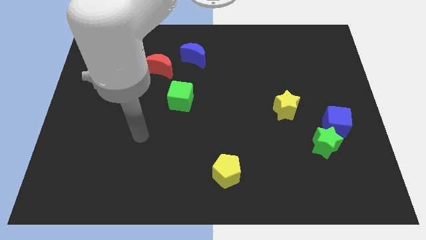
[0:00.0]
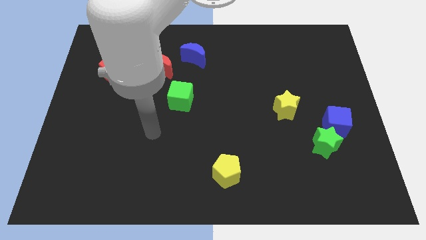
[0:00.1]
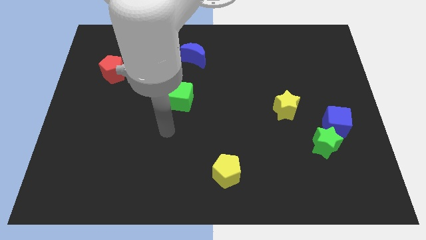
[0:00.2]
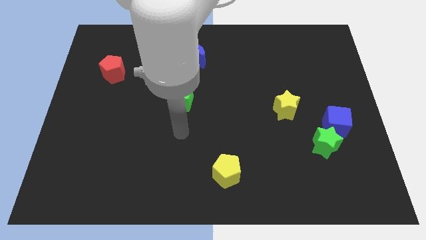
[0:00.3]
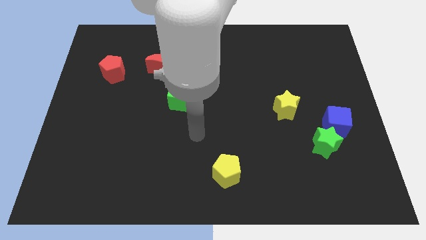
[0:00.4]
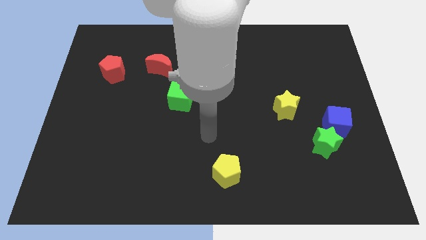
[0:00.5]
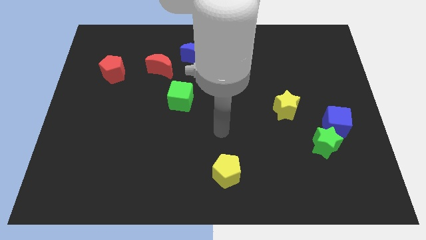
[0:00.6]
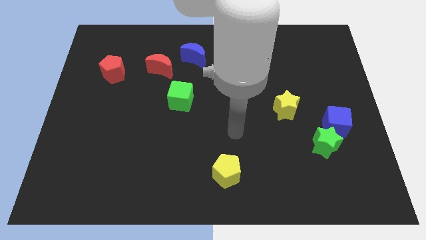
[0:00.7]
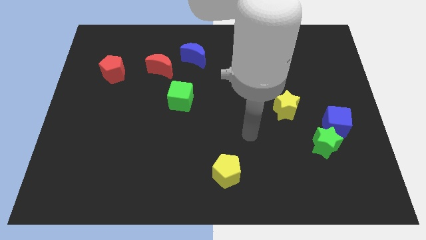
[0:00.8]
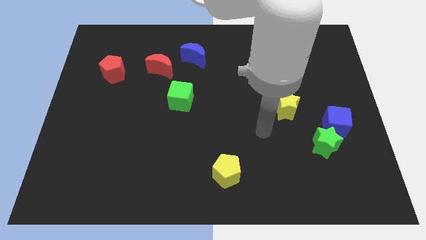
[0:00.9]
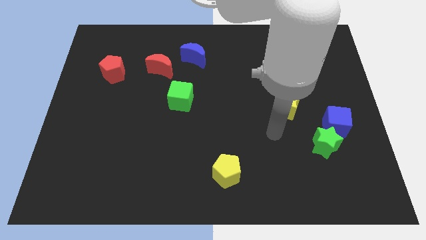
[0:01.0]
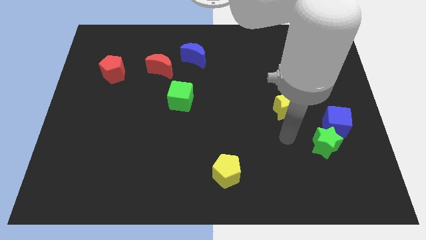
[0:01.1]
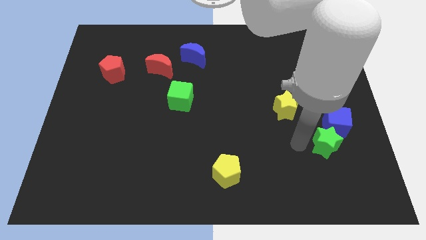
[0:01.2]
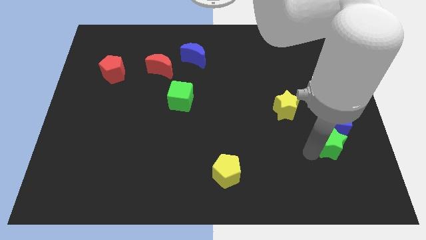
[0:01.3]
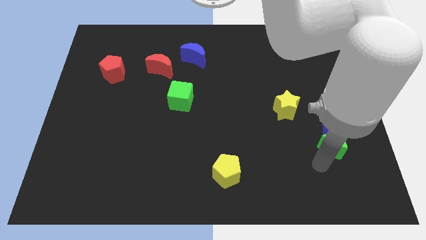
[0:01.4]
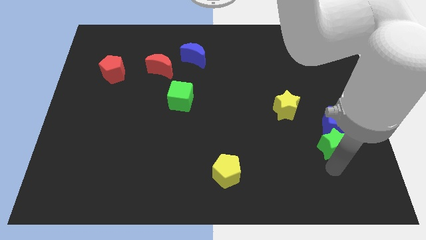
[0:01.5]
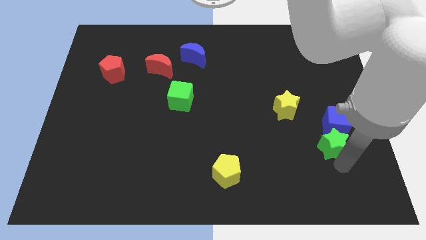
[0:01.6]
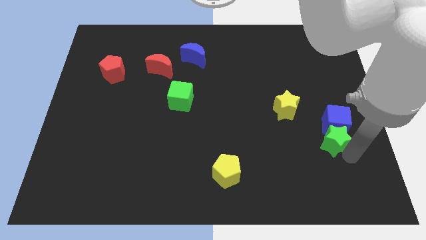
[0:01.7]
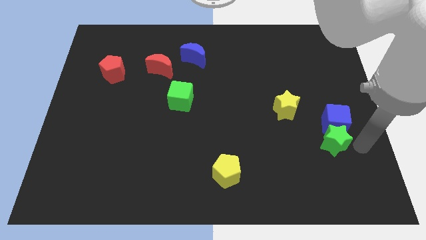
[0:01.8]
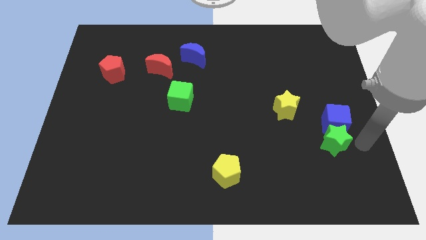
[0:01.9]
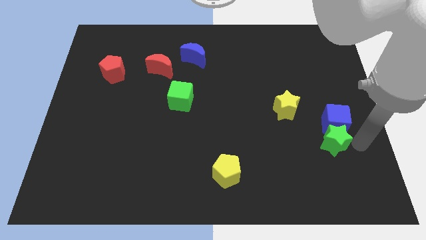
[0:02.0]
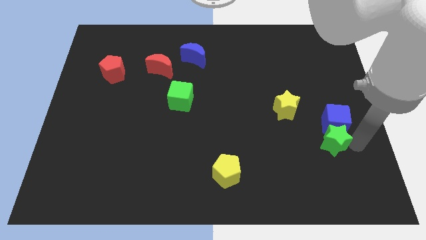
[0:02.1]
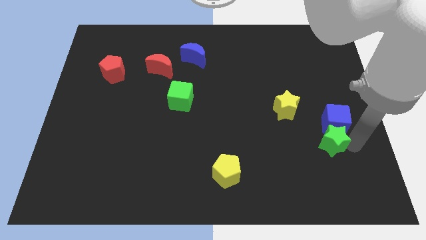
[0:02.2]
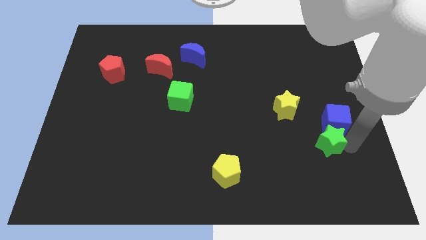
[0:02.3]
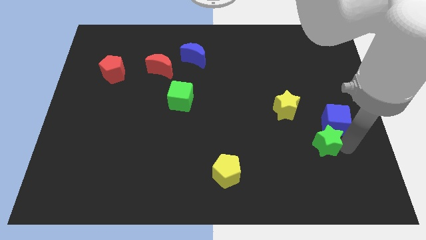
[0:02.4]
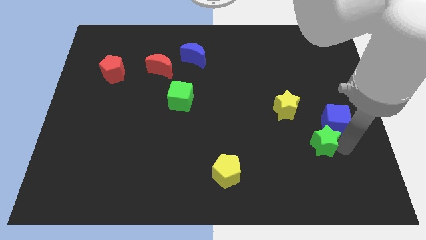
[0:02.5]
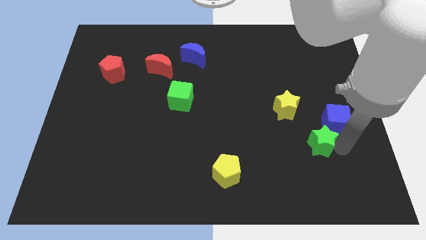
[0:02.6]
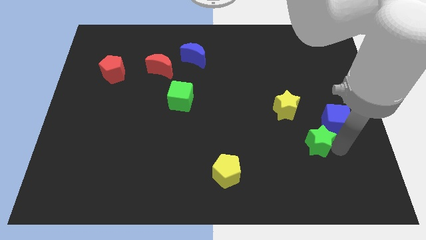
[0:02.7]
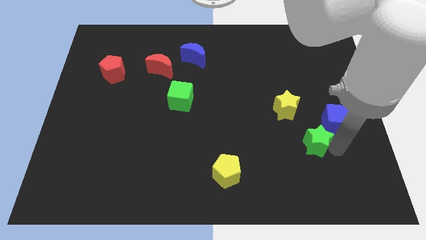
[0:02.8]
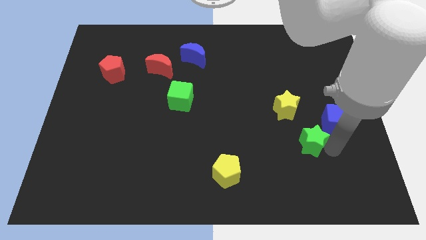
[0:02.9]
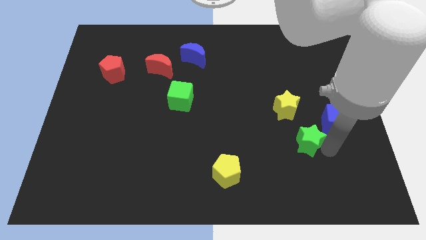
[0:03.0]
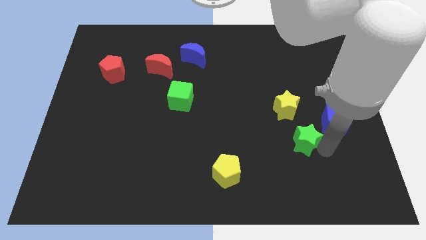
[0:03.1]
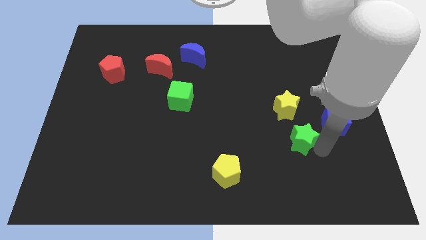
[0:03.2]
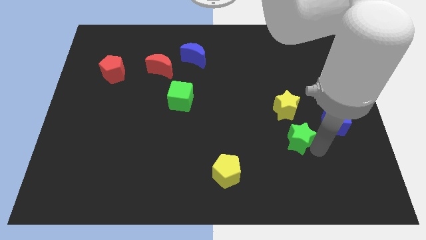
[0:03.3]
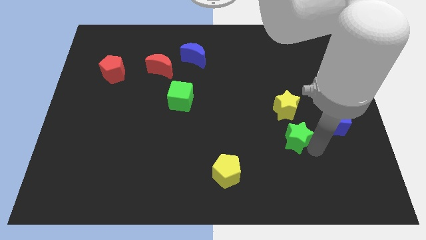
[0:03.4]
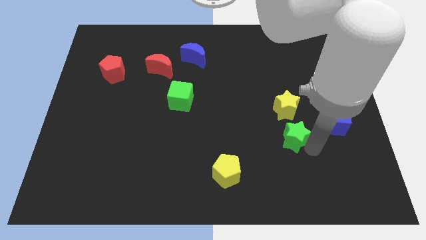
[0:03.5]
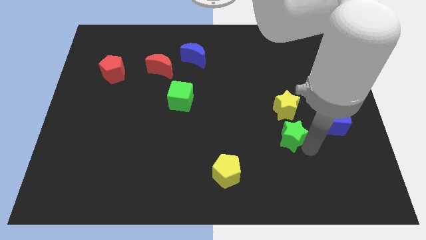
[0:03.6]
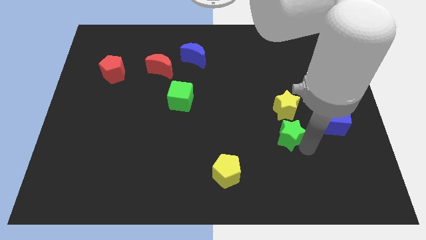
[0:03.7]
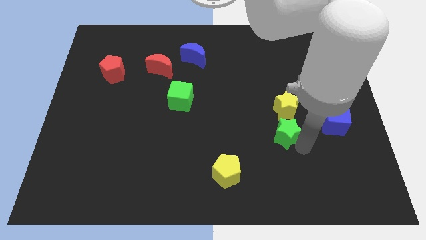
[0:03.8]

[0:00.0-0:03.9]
slightly move the green star up and to the left

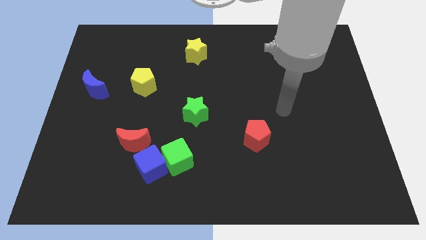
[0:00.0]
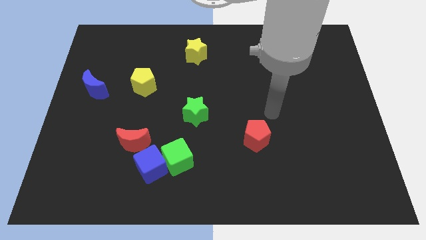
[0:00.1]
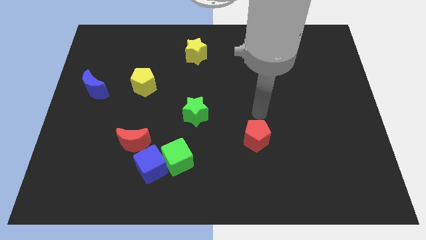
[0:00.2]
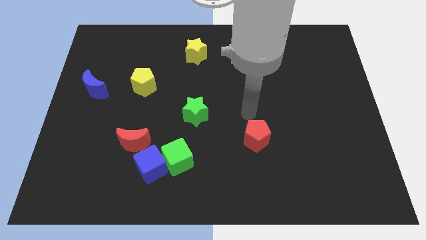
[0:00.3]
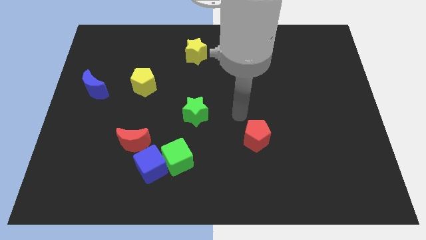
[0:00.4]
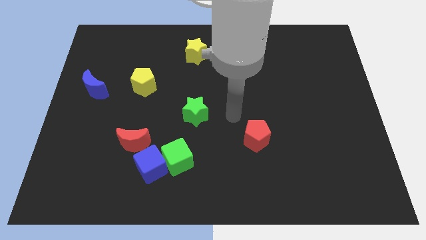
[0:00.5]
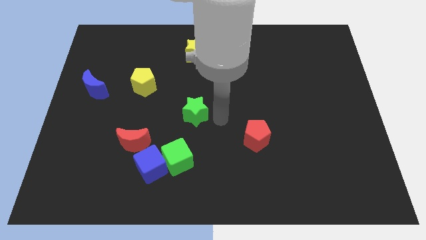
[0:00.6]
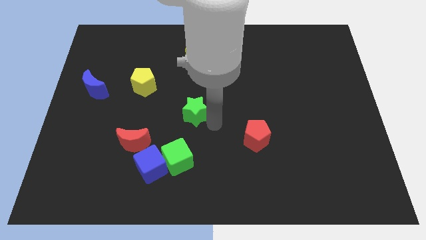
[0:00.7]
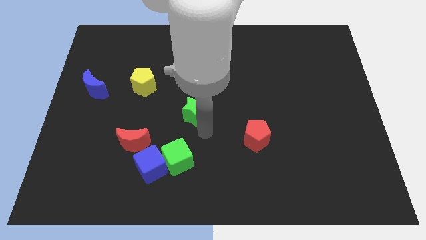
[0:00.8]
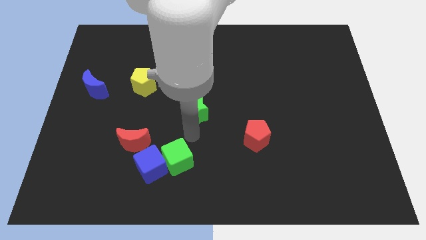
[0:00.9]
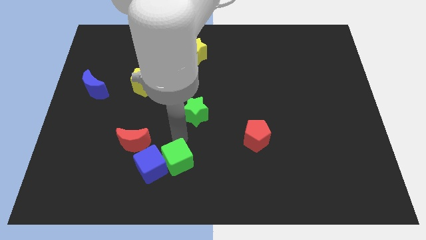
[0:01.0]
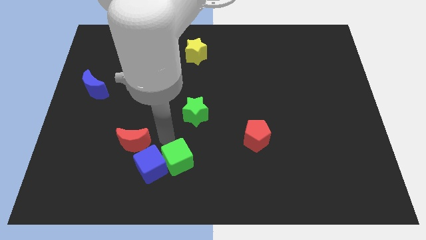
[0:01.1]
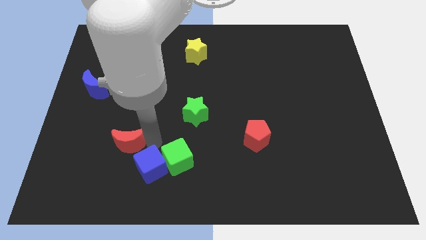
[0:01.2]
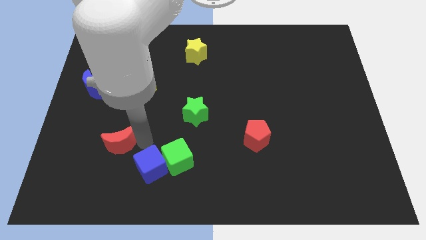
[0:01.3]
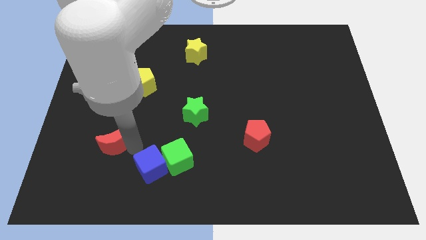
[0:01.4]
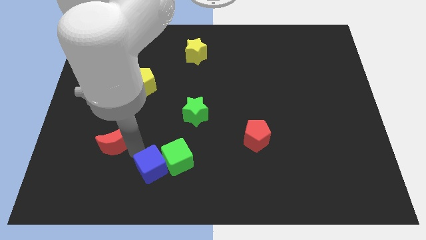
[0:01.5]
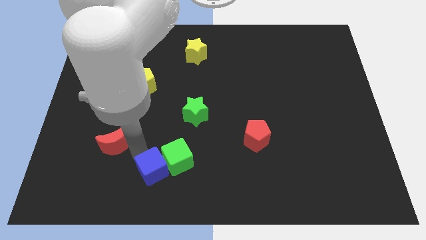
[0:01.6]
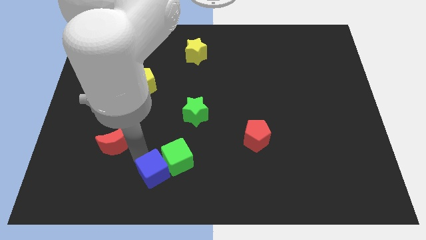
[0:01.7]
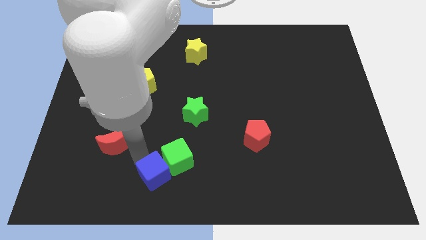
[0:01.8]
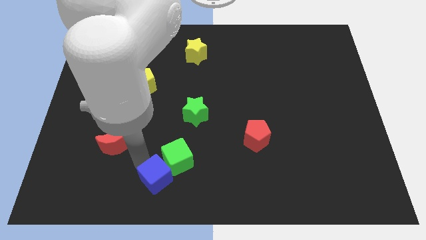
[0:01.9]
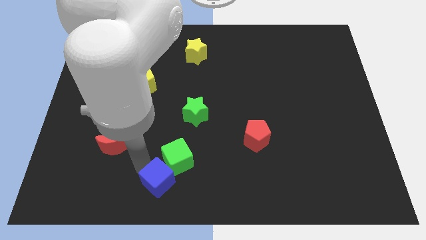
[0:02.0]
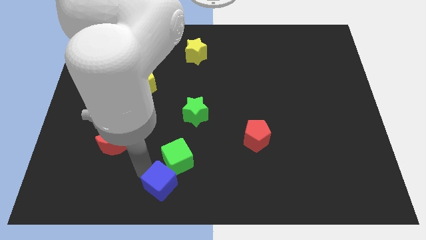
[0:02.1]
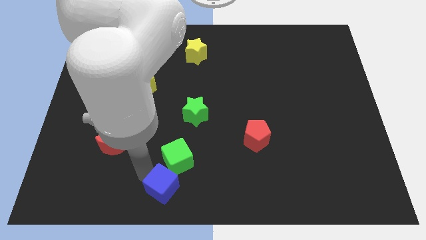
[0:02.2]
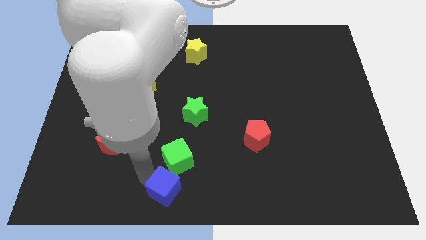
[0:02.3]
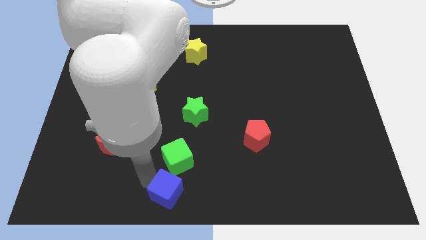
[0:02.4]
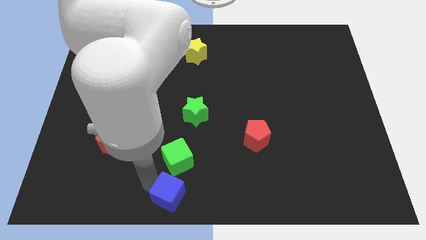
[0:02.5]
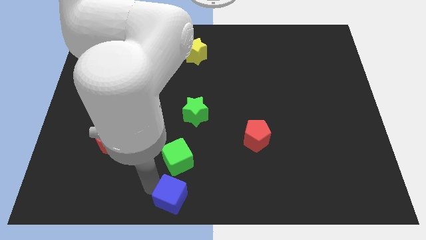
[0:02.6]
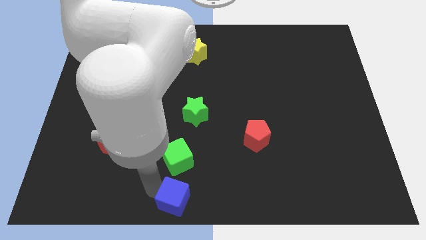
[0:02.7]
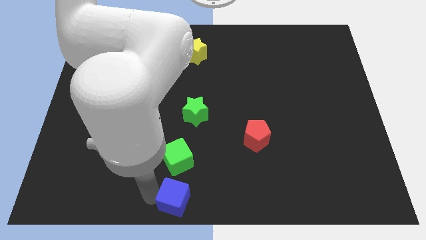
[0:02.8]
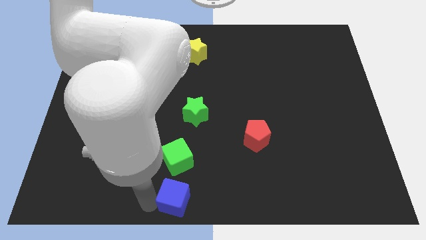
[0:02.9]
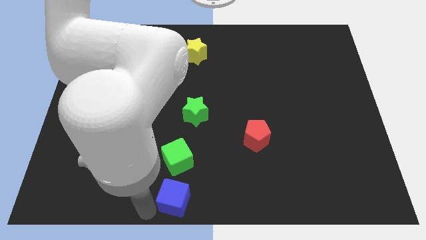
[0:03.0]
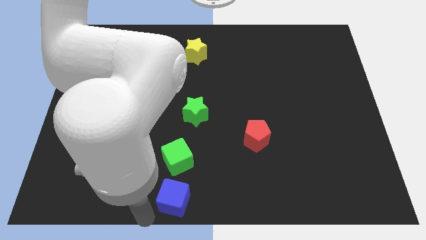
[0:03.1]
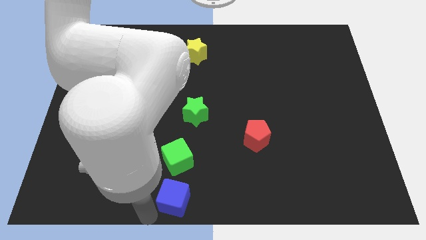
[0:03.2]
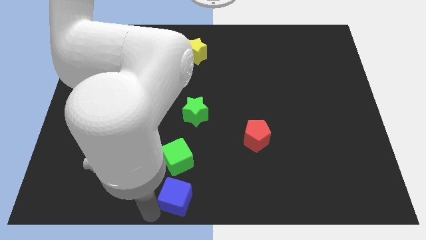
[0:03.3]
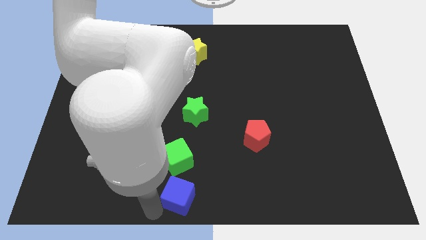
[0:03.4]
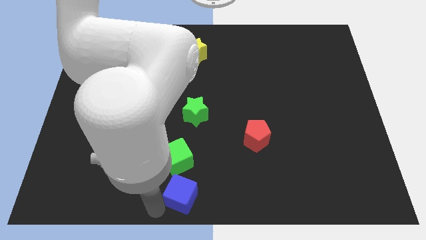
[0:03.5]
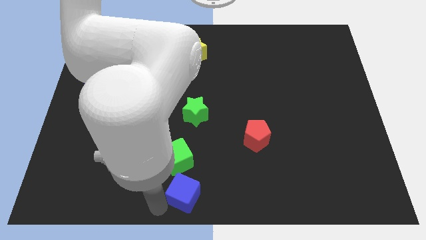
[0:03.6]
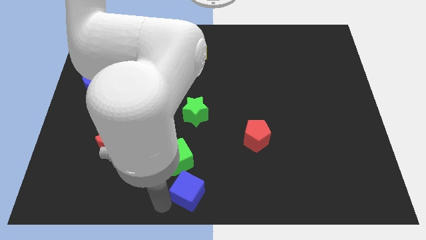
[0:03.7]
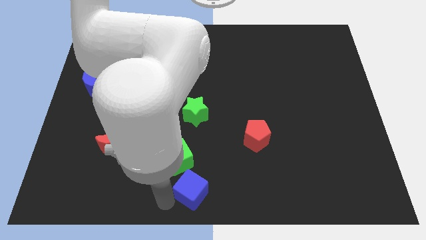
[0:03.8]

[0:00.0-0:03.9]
slide the blue cube a bit right

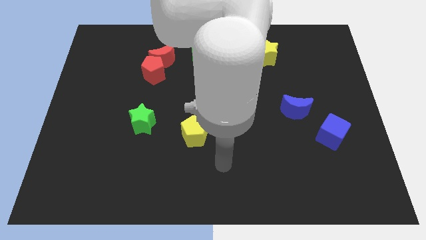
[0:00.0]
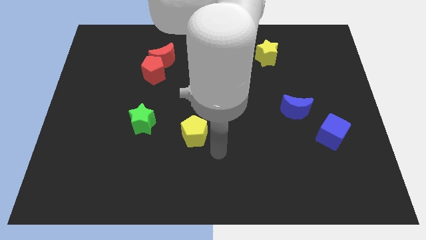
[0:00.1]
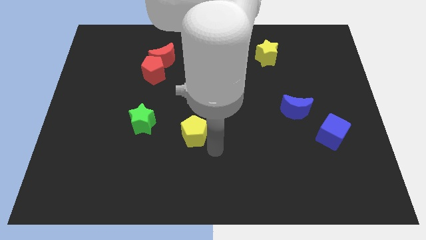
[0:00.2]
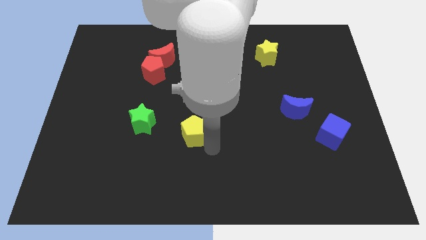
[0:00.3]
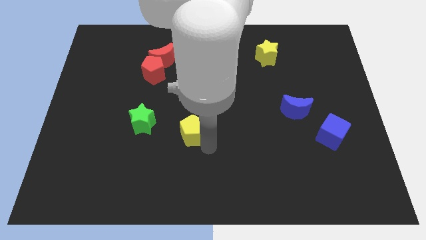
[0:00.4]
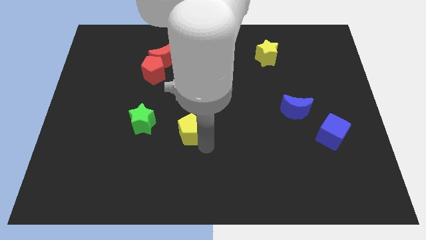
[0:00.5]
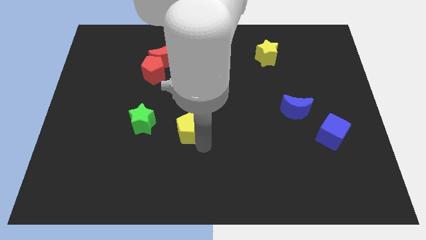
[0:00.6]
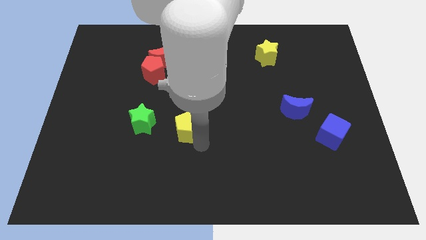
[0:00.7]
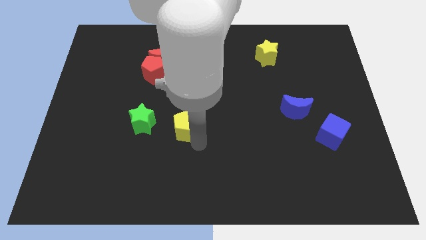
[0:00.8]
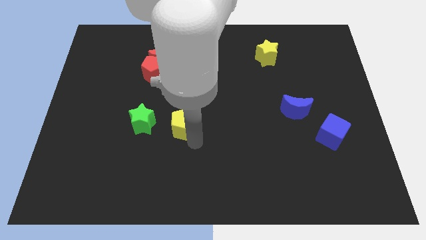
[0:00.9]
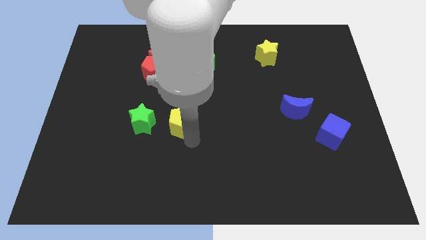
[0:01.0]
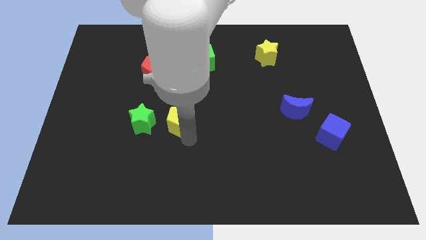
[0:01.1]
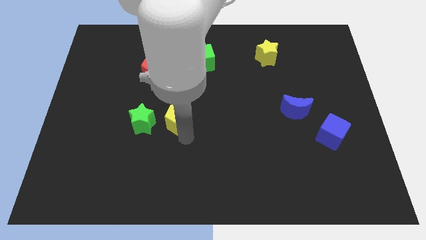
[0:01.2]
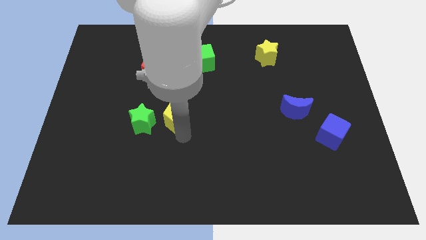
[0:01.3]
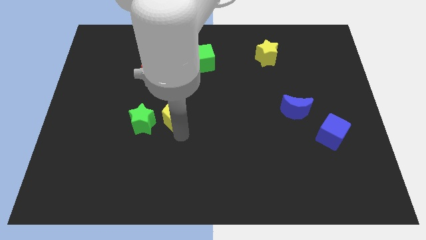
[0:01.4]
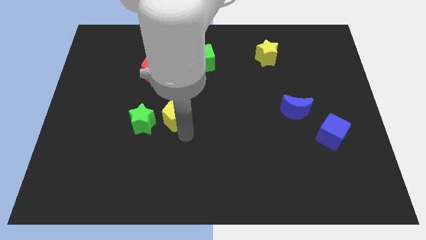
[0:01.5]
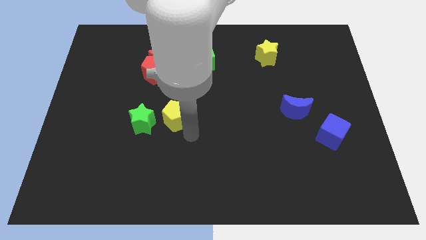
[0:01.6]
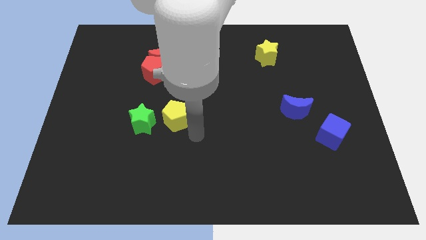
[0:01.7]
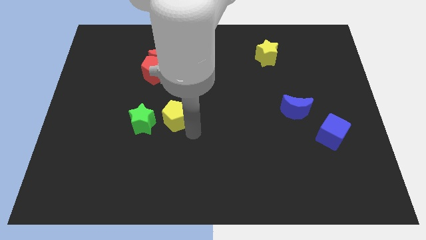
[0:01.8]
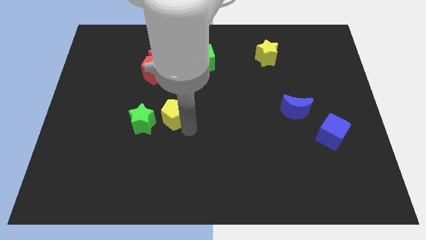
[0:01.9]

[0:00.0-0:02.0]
move the yellow pentagon upwards and to the left diagonally a bit
